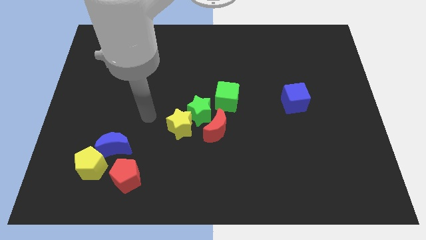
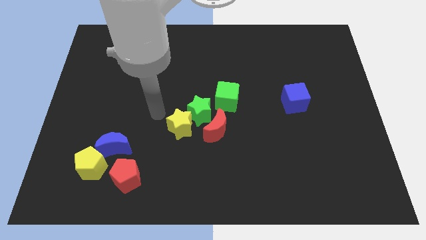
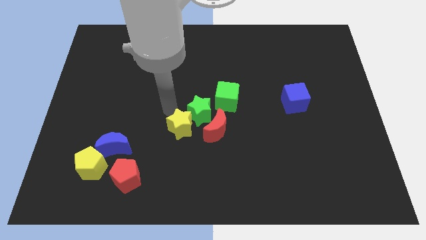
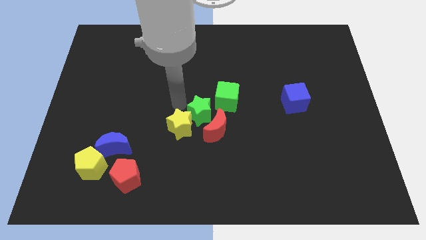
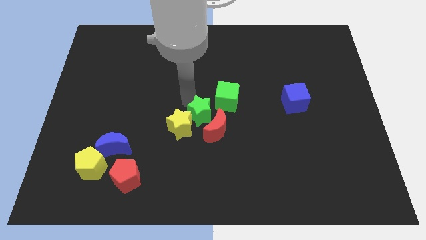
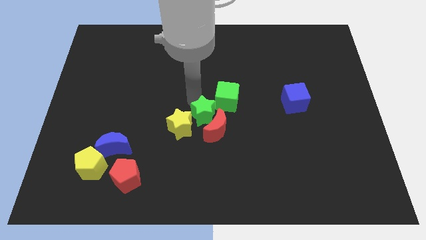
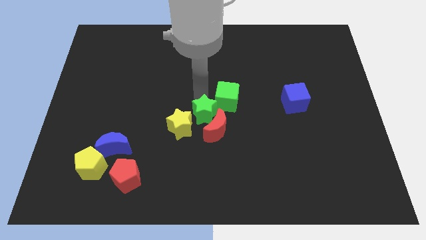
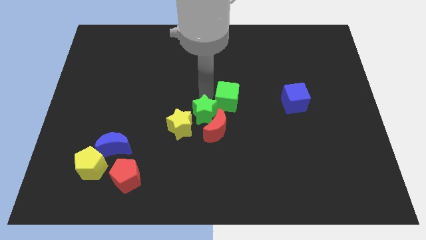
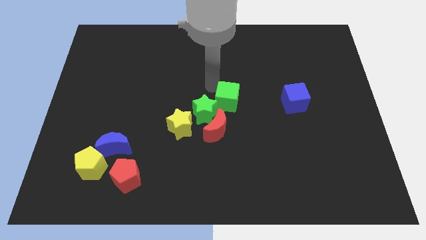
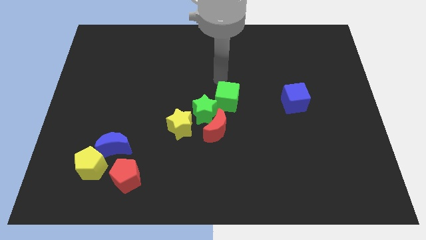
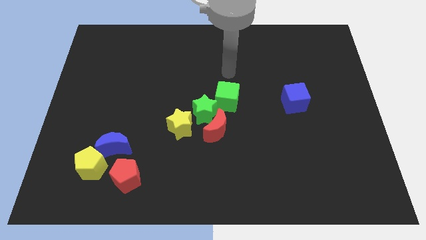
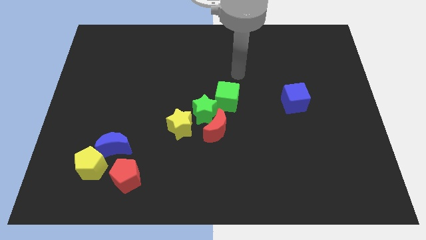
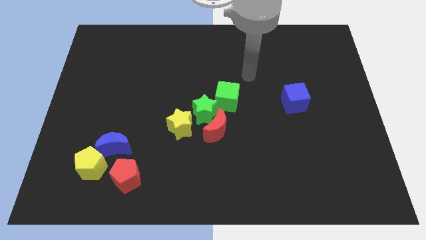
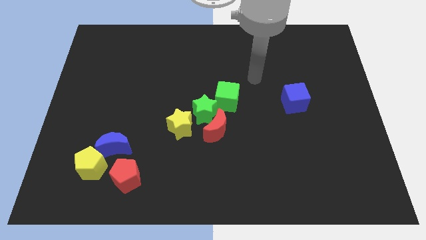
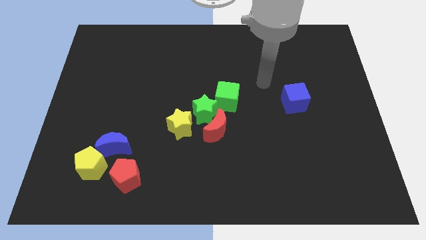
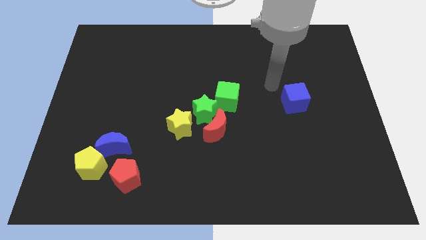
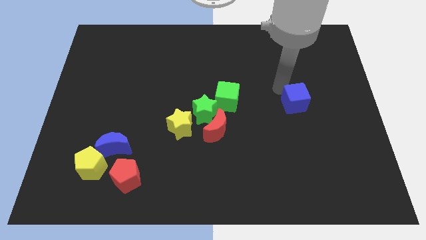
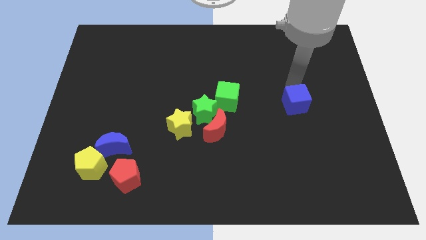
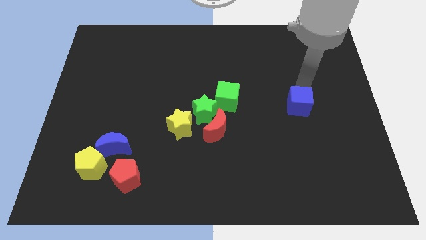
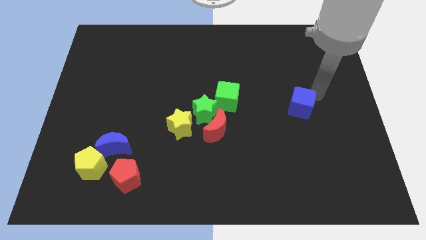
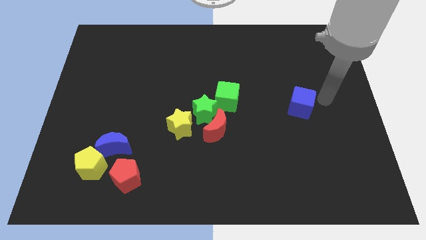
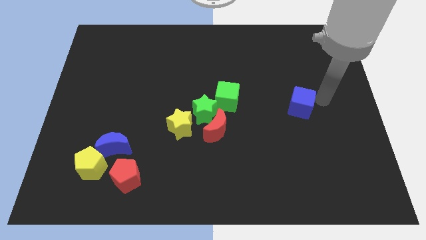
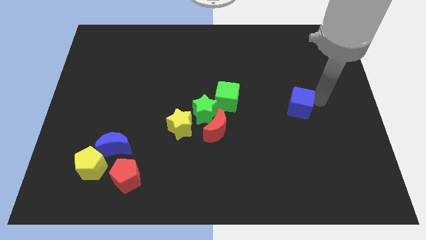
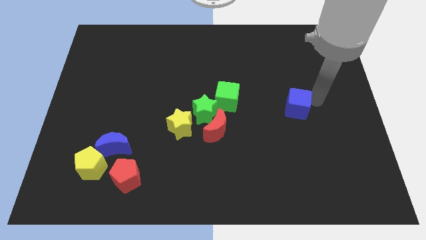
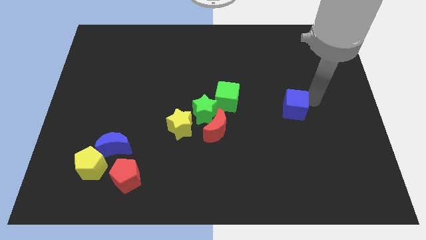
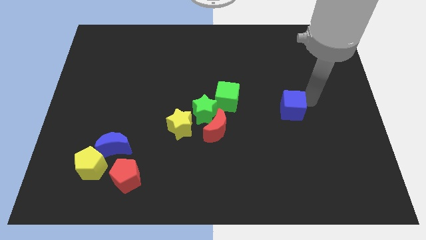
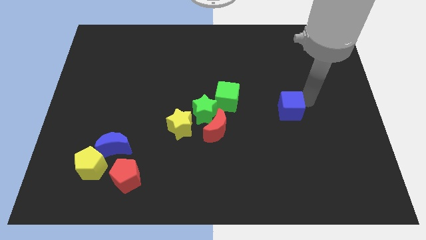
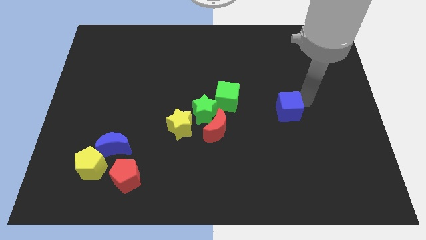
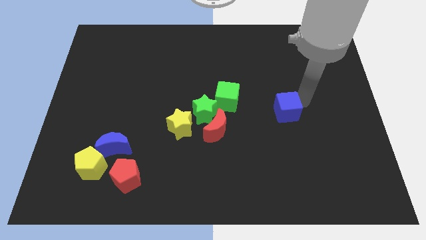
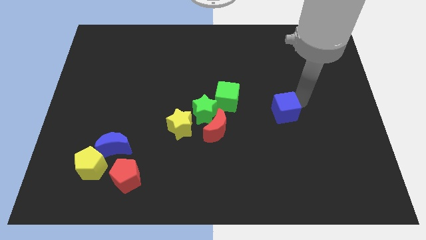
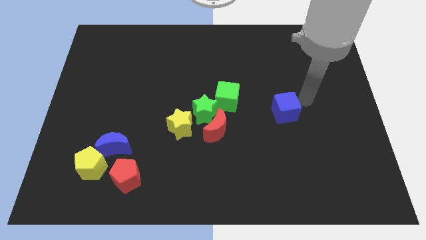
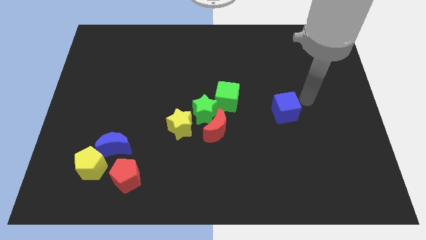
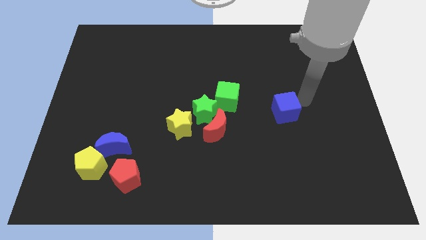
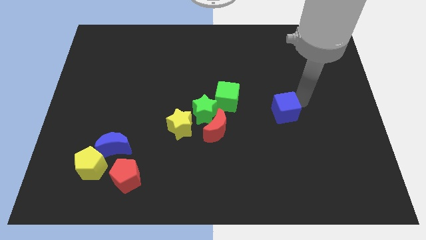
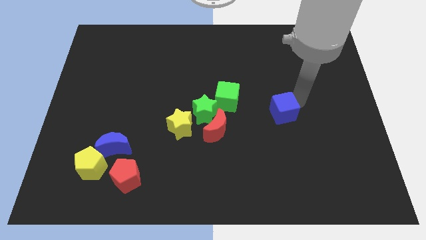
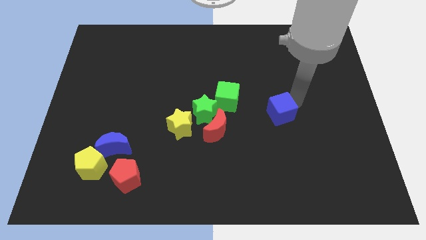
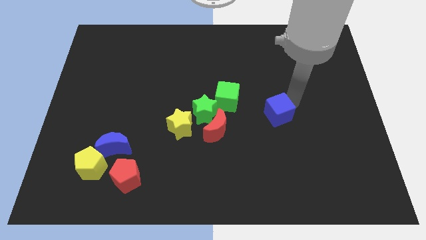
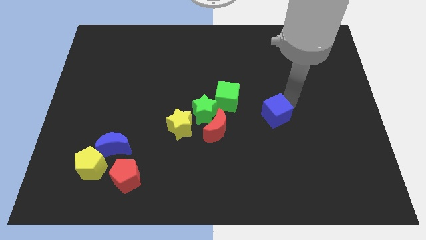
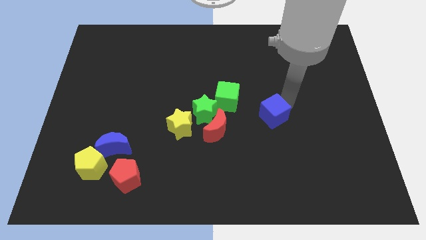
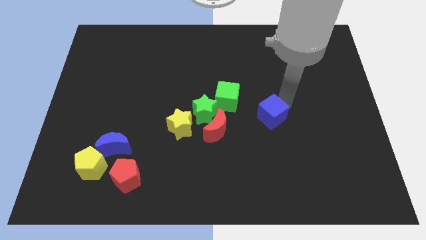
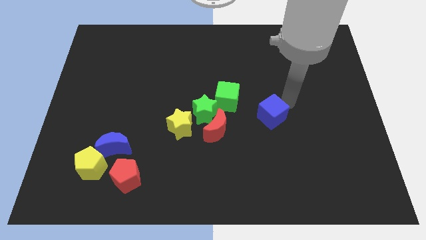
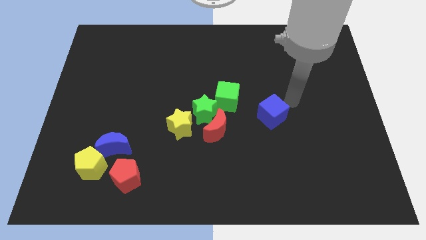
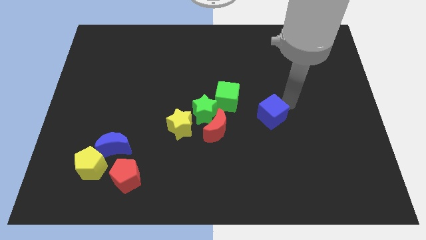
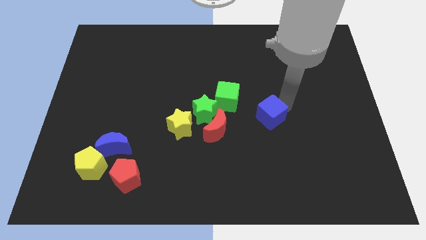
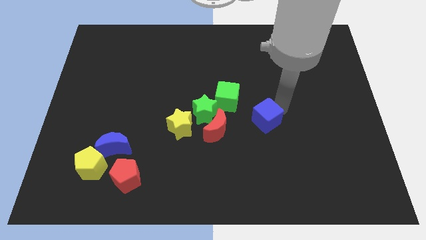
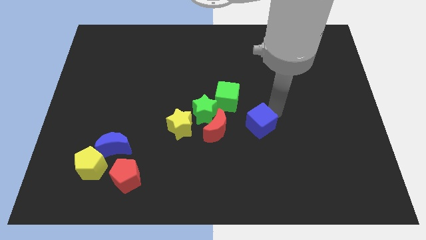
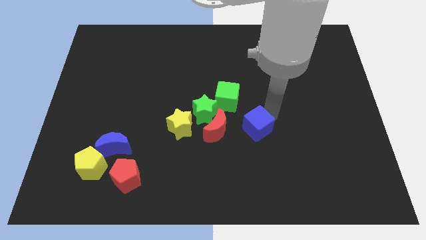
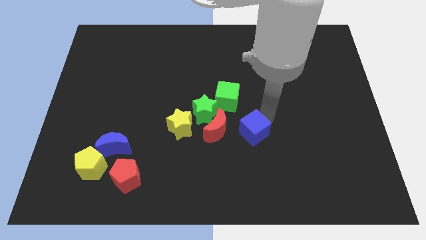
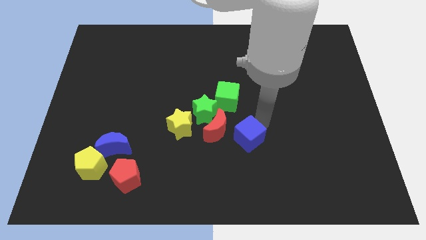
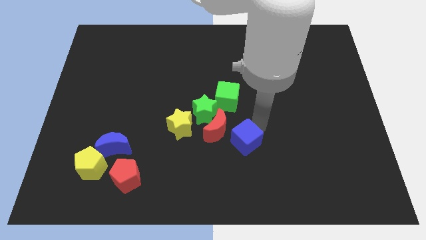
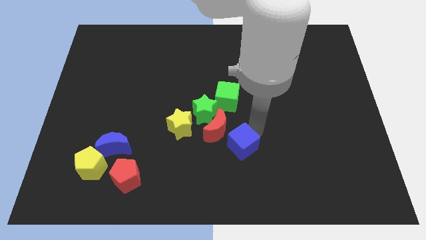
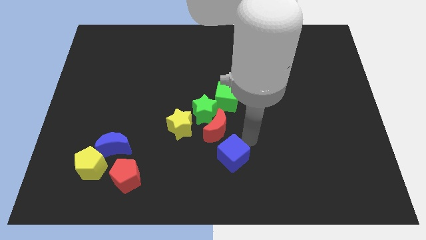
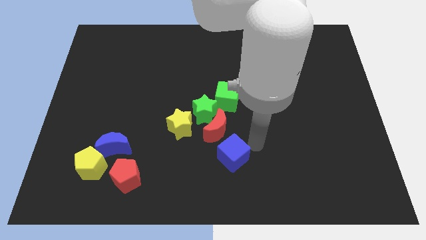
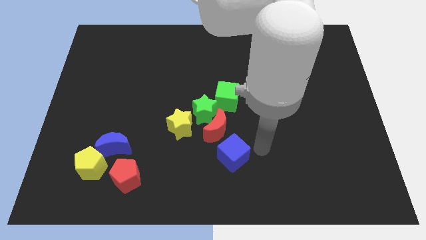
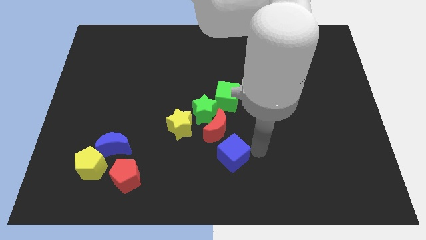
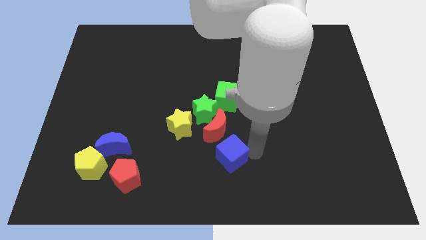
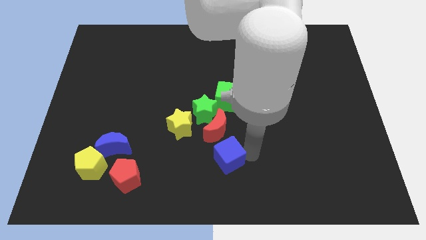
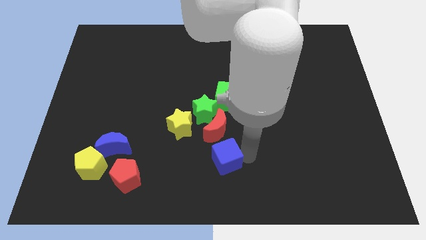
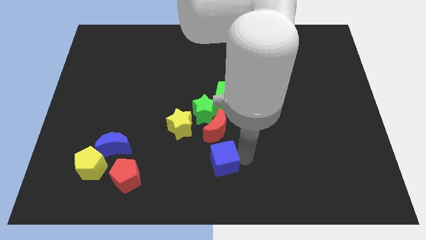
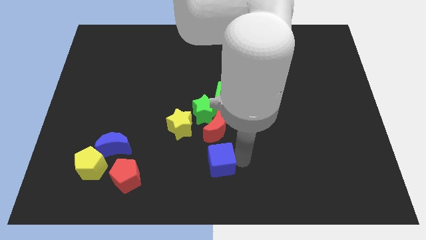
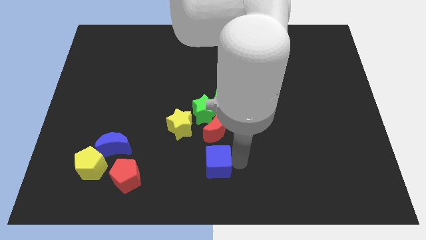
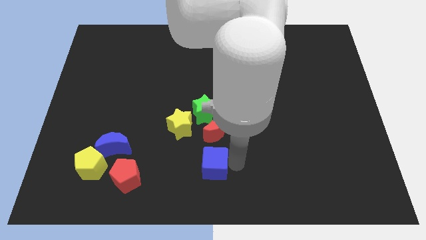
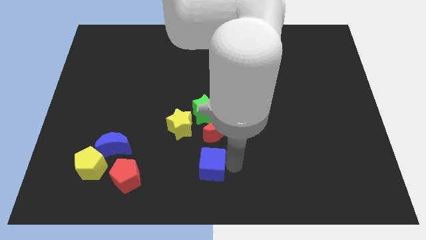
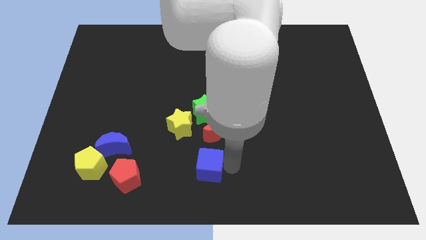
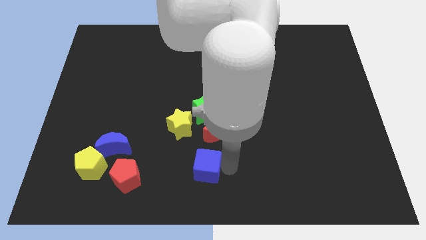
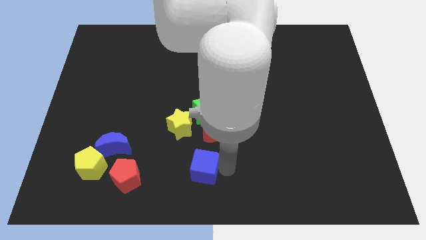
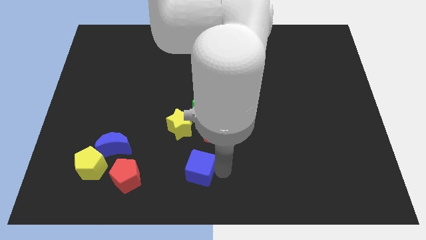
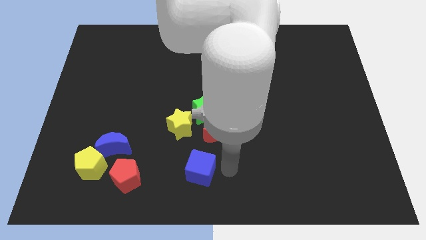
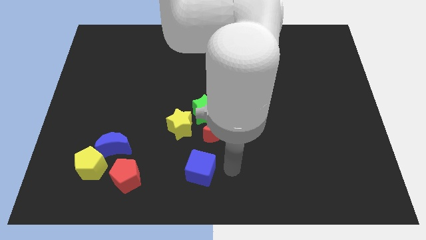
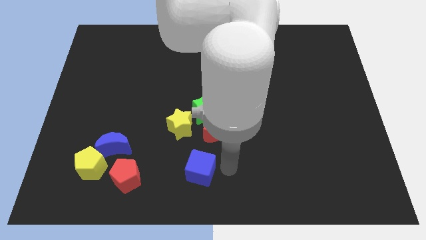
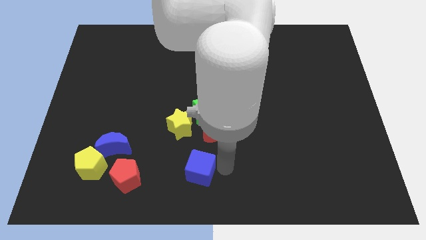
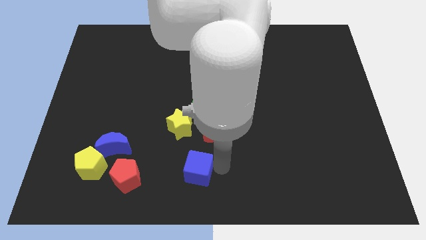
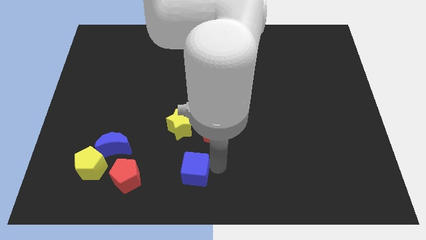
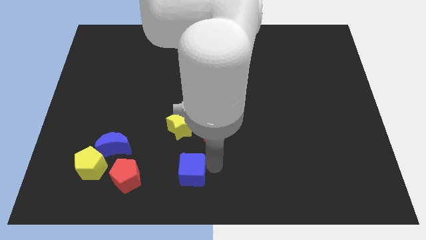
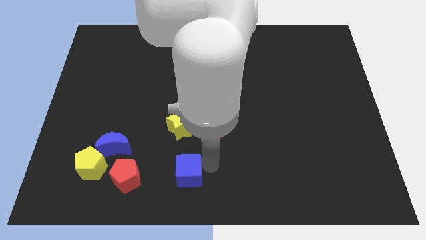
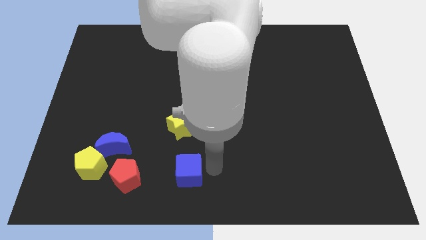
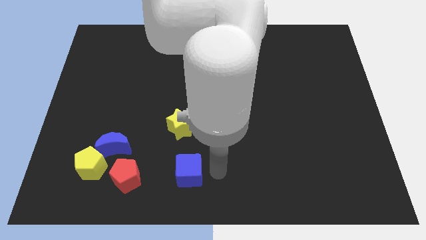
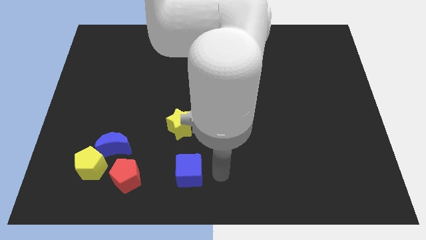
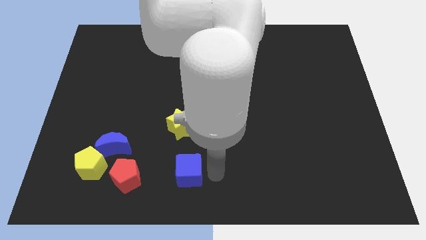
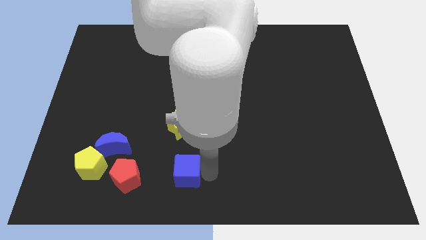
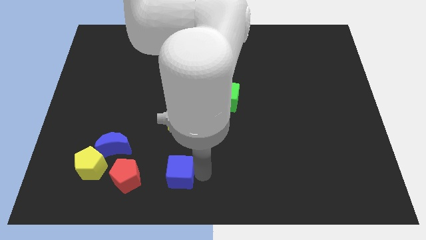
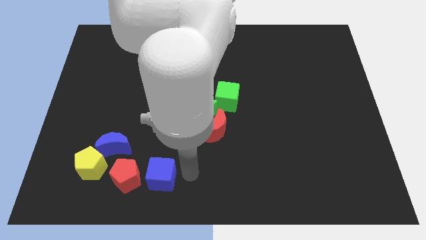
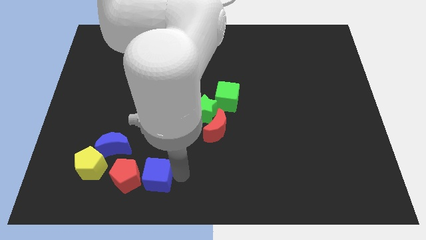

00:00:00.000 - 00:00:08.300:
slide the blue cube towards the red pentagon
